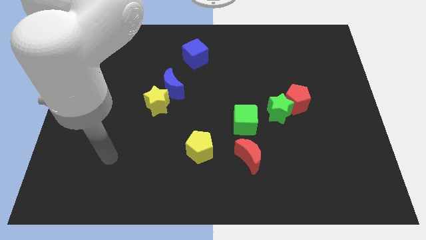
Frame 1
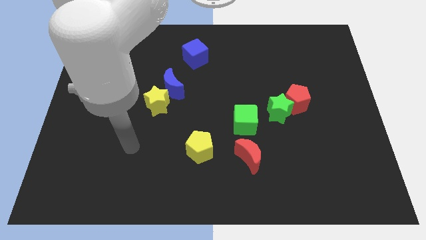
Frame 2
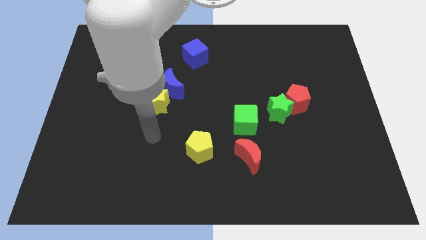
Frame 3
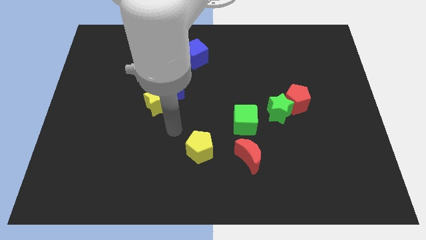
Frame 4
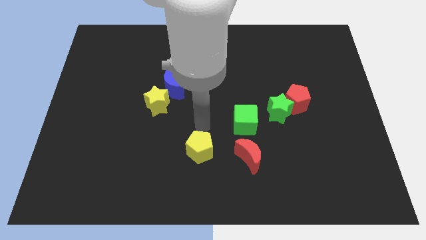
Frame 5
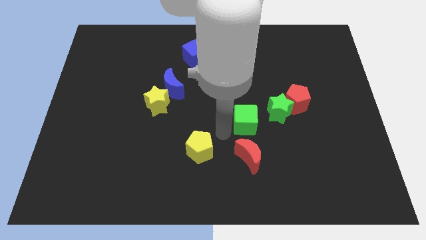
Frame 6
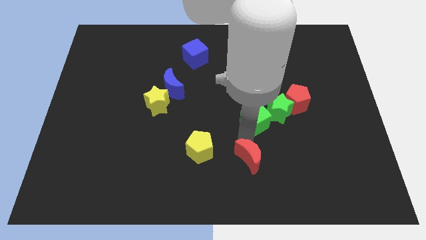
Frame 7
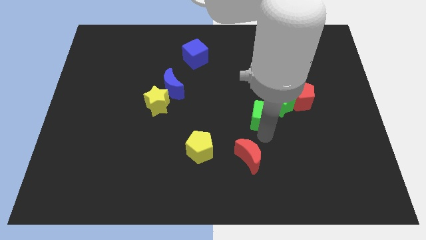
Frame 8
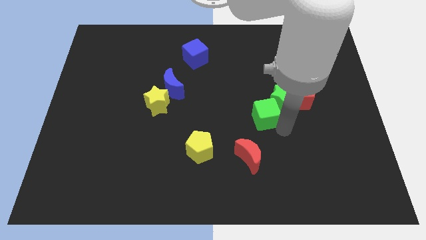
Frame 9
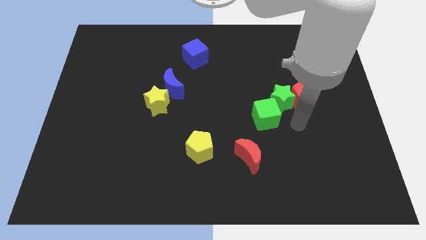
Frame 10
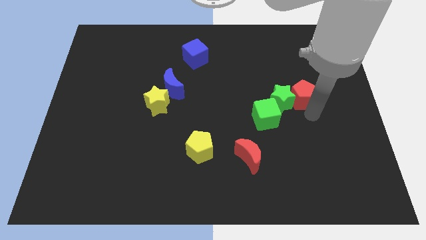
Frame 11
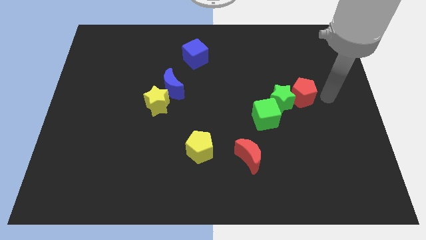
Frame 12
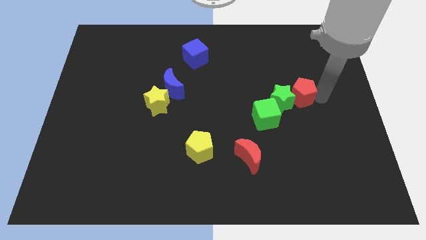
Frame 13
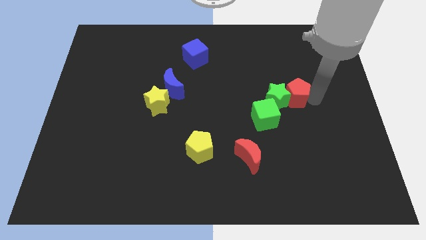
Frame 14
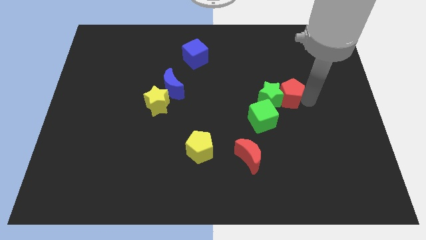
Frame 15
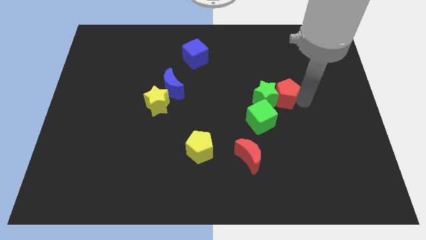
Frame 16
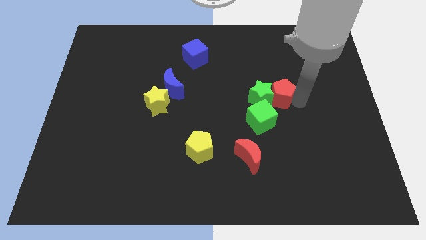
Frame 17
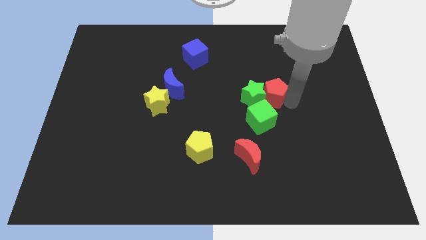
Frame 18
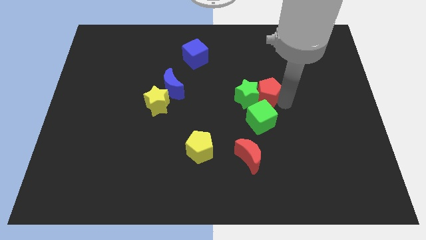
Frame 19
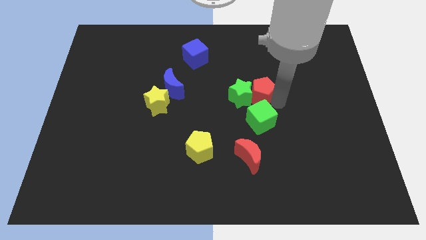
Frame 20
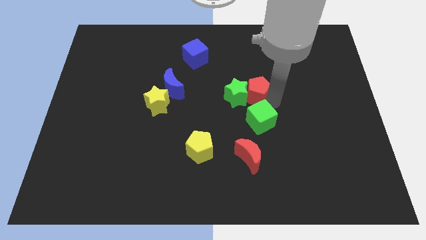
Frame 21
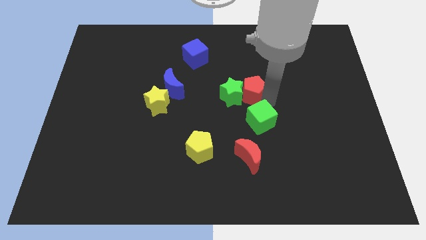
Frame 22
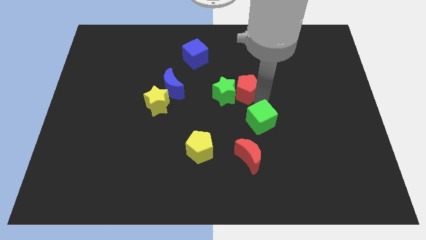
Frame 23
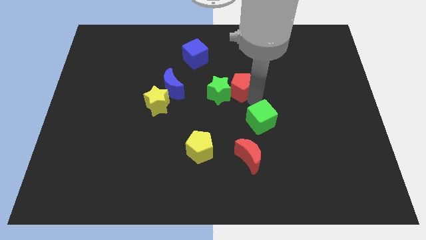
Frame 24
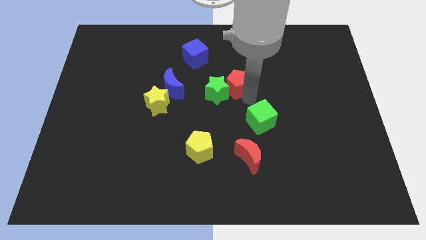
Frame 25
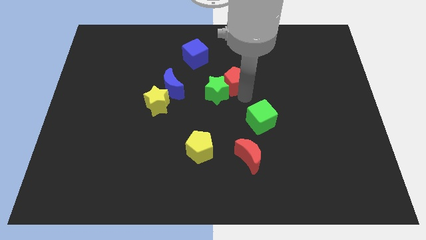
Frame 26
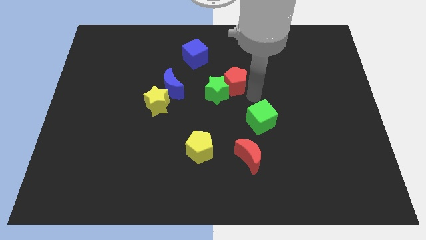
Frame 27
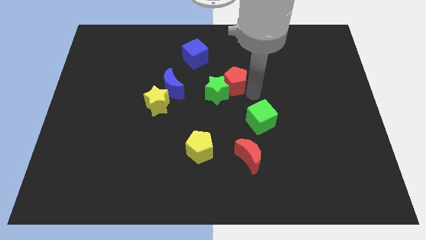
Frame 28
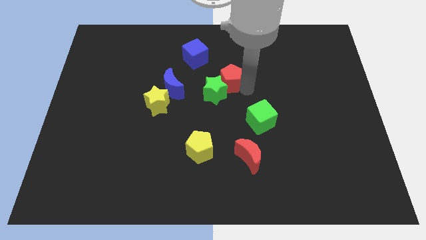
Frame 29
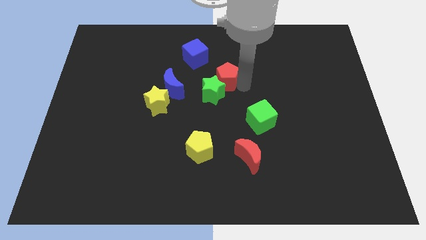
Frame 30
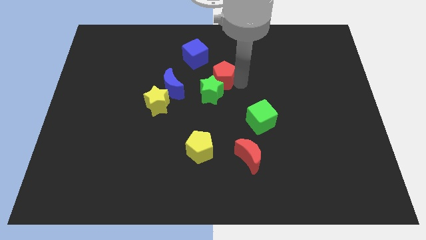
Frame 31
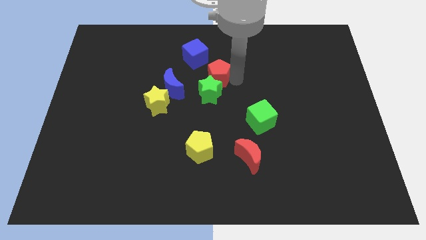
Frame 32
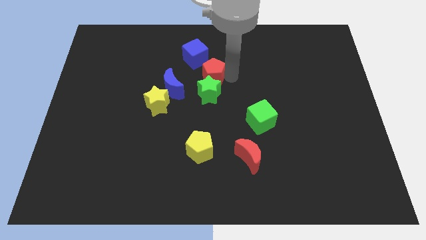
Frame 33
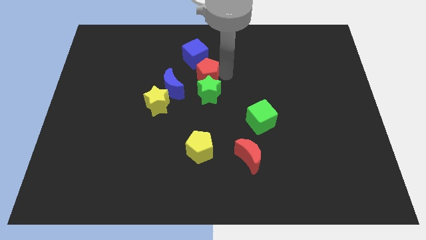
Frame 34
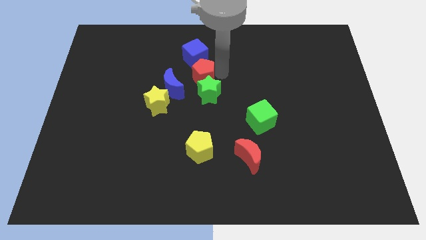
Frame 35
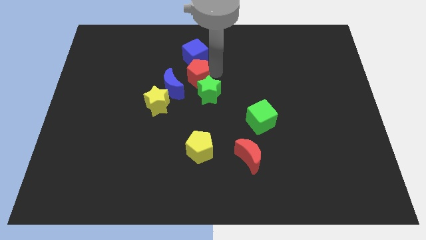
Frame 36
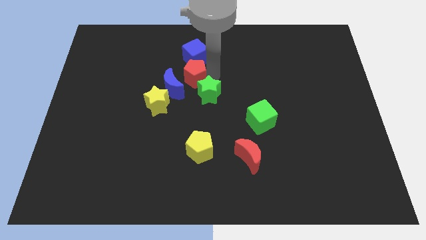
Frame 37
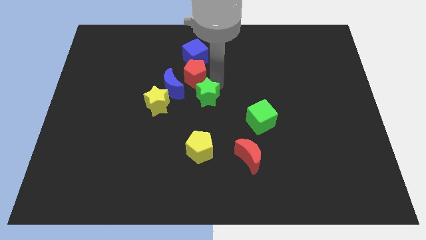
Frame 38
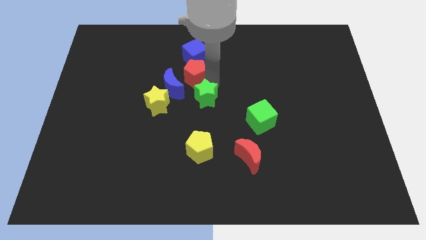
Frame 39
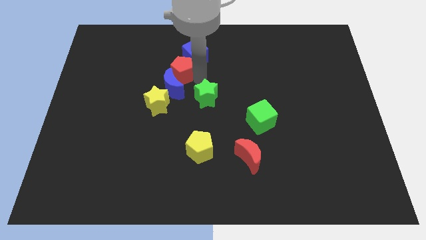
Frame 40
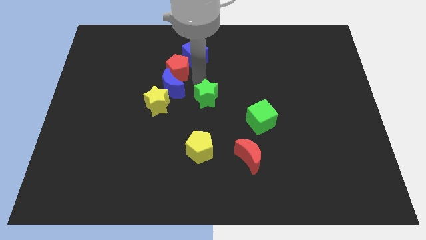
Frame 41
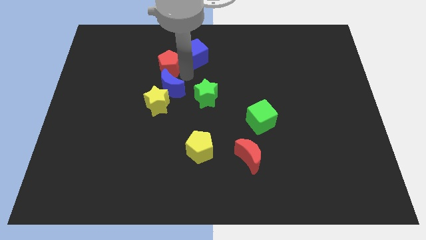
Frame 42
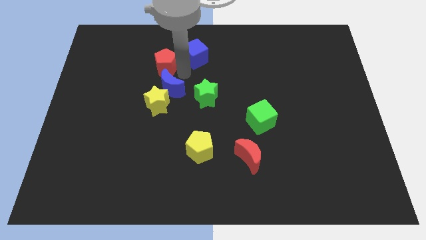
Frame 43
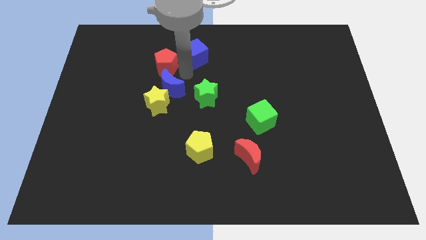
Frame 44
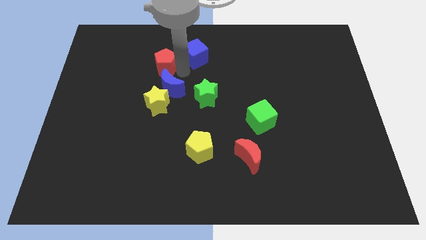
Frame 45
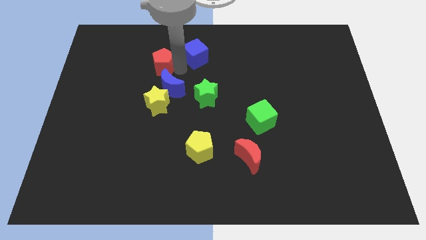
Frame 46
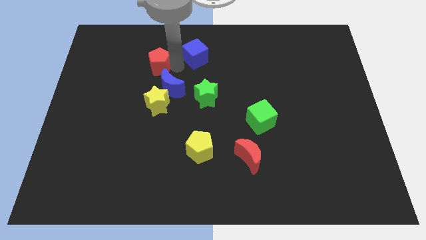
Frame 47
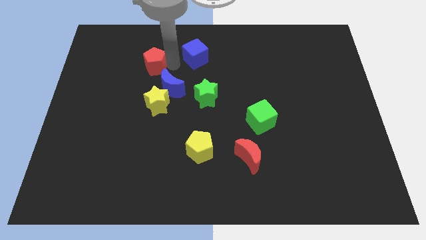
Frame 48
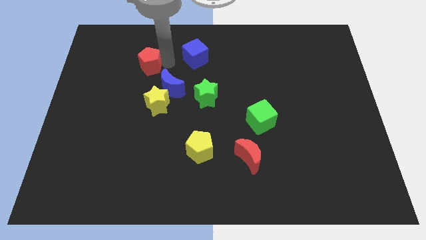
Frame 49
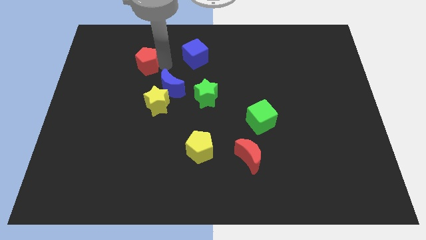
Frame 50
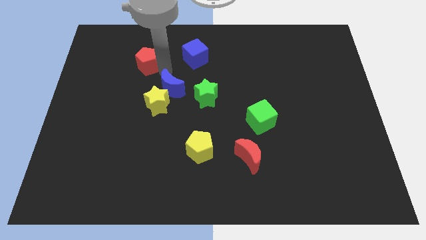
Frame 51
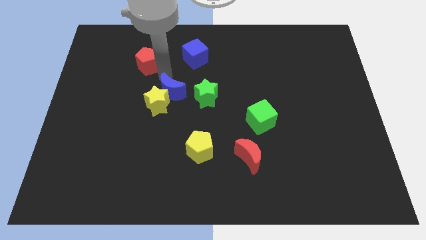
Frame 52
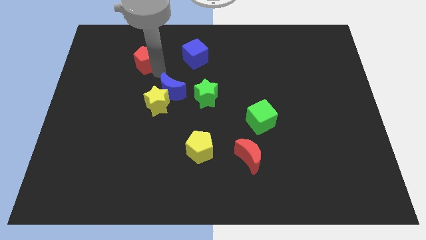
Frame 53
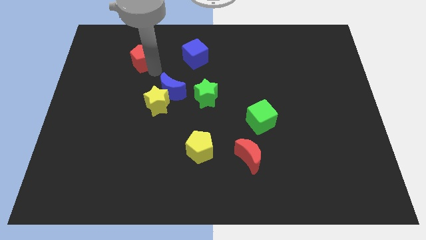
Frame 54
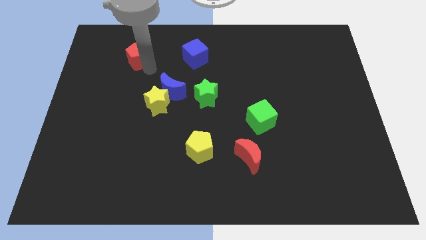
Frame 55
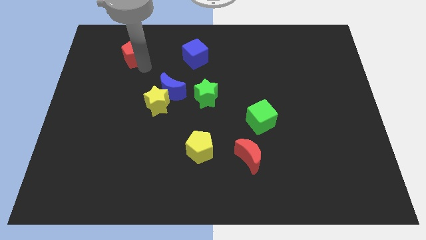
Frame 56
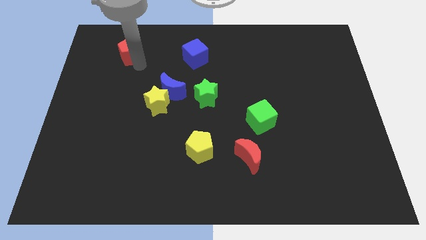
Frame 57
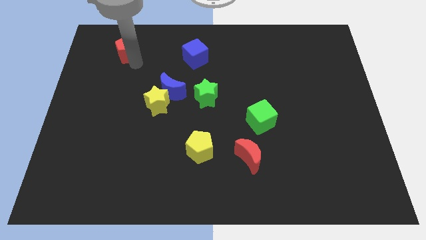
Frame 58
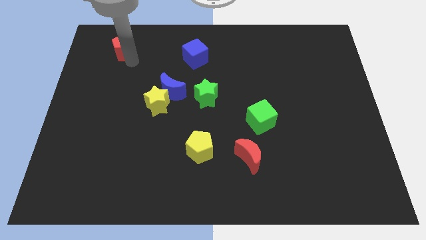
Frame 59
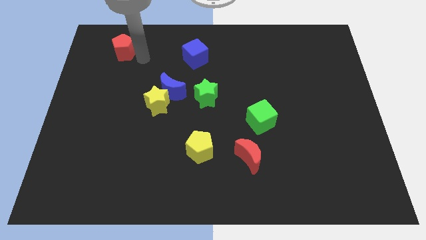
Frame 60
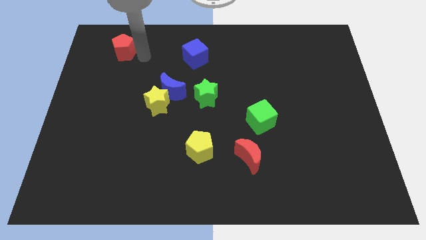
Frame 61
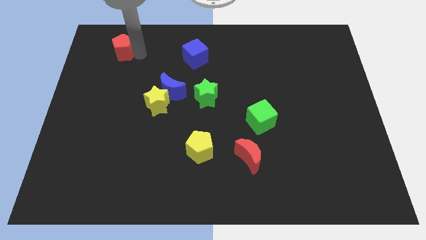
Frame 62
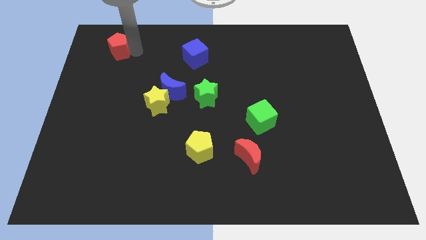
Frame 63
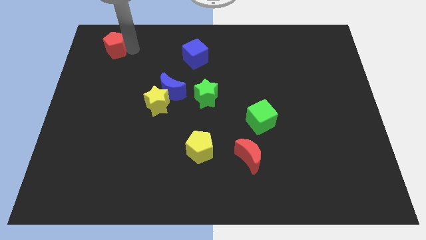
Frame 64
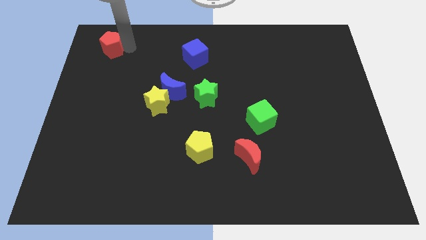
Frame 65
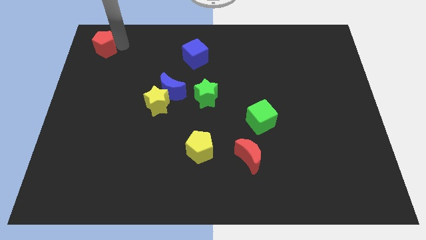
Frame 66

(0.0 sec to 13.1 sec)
put the red pentagon to the top left corner
